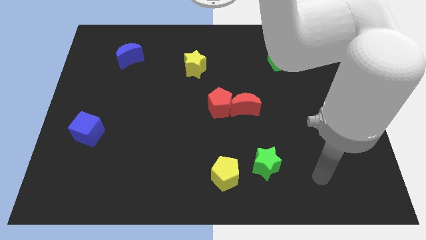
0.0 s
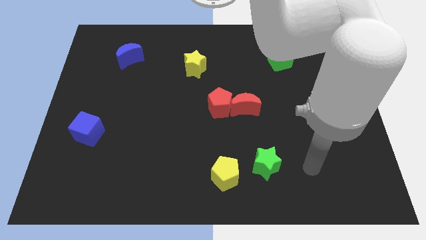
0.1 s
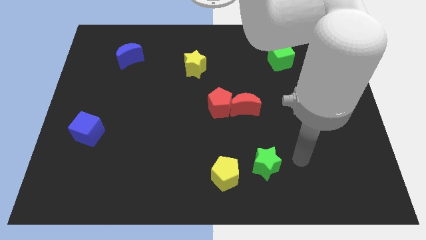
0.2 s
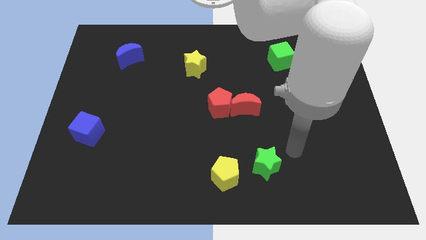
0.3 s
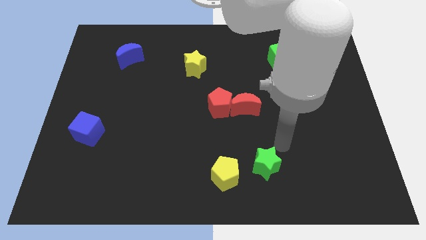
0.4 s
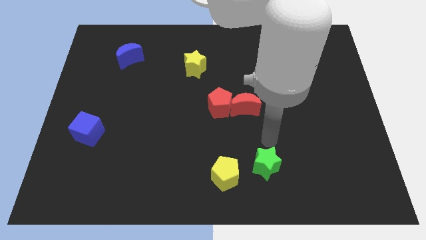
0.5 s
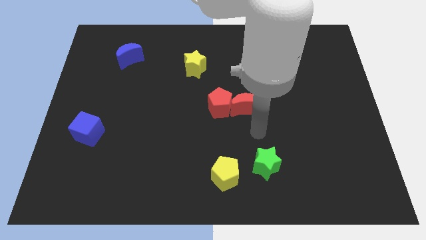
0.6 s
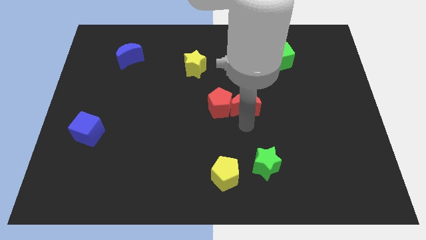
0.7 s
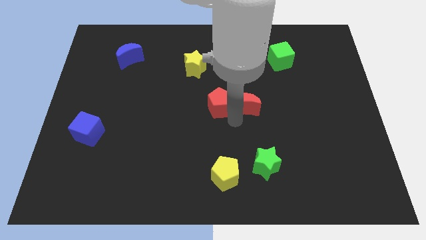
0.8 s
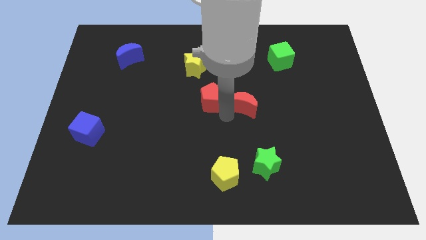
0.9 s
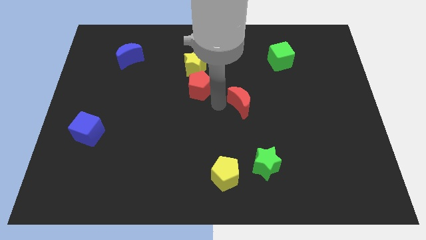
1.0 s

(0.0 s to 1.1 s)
move the red moon away from the red pentagon

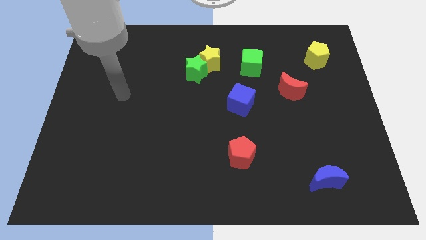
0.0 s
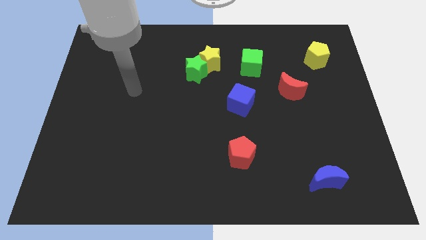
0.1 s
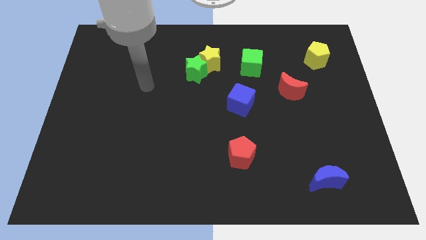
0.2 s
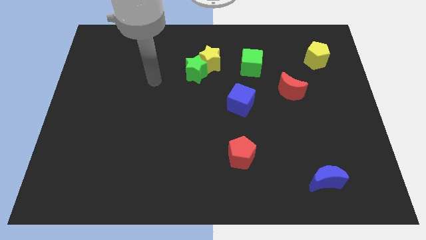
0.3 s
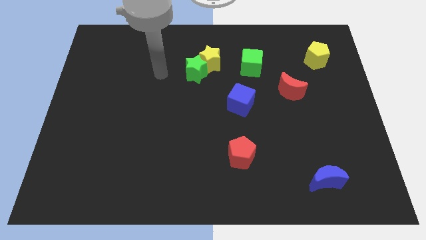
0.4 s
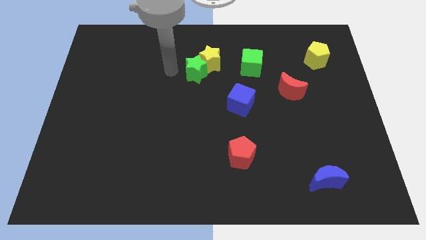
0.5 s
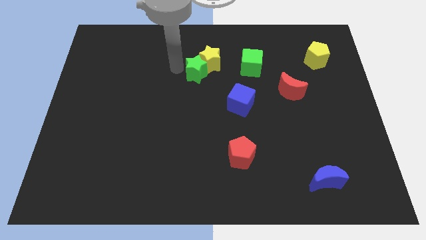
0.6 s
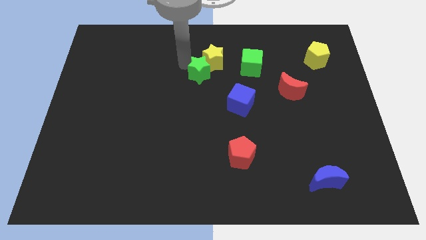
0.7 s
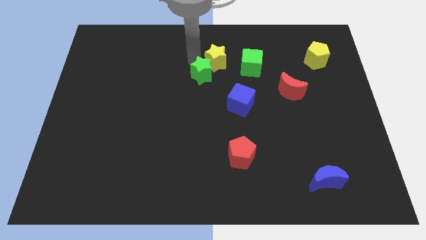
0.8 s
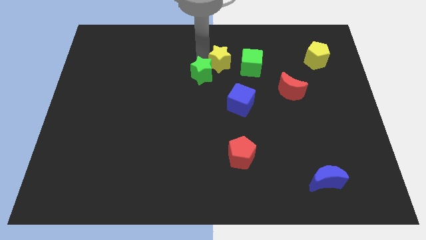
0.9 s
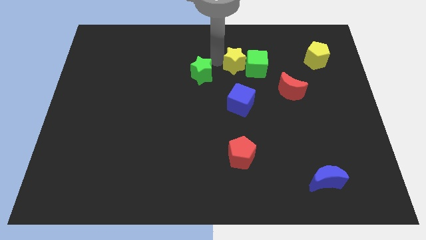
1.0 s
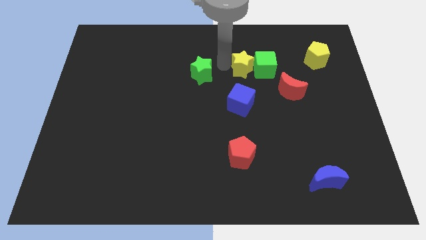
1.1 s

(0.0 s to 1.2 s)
move the green star away from the yellow star

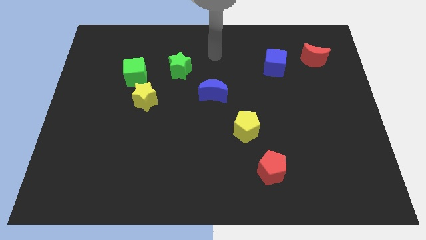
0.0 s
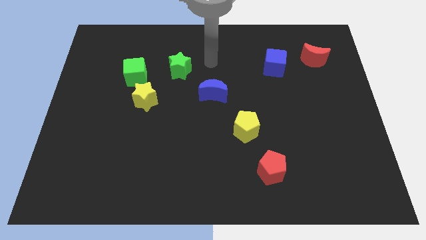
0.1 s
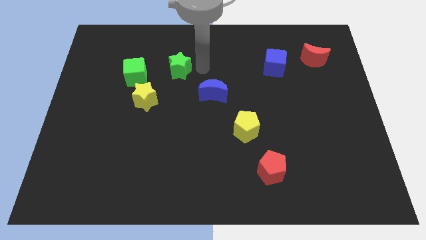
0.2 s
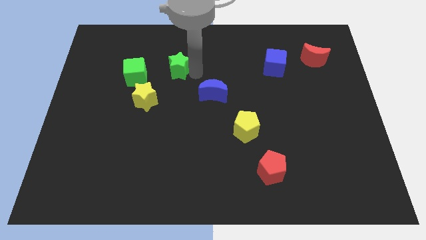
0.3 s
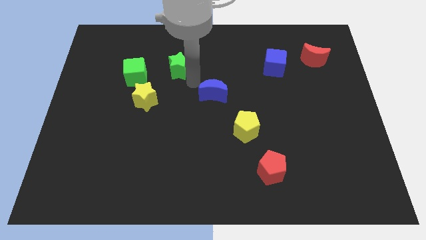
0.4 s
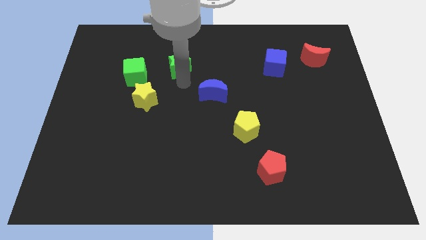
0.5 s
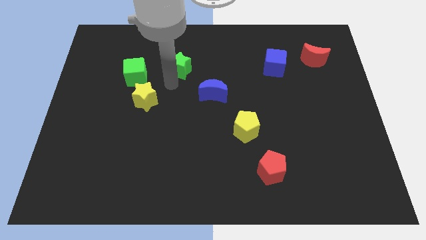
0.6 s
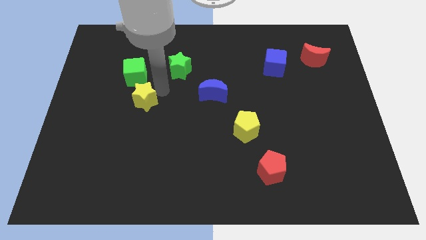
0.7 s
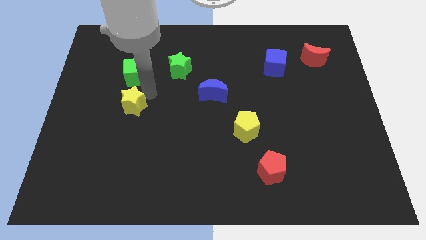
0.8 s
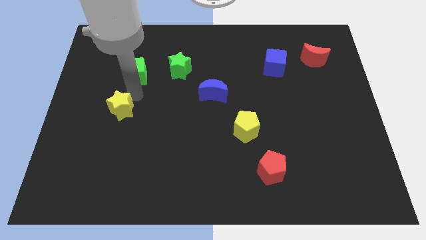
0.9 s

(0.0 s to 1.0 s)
separate the green cube from the yellow star

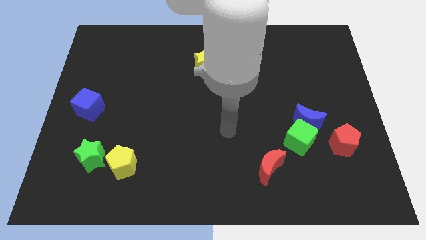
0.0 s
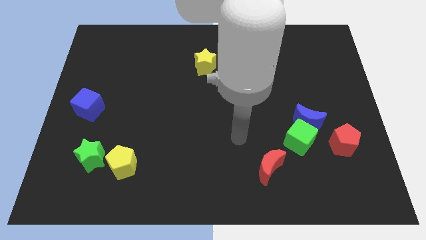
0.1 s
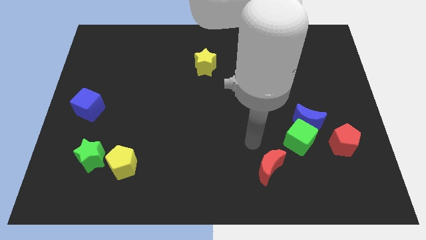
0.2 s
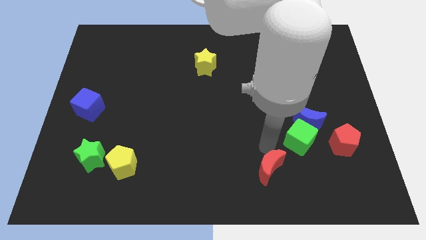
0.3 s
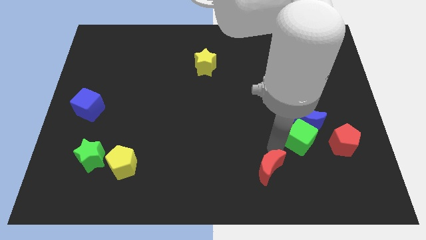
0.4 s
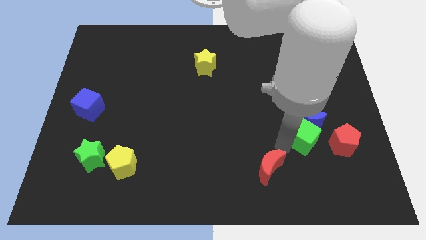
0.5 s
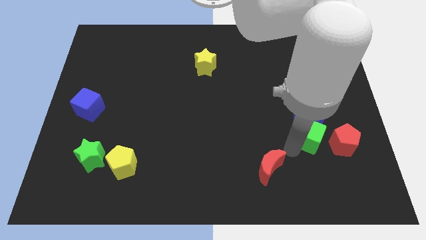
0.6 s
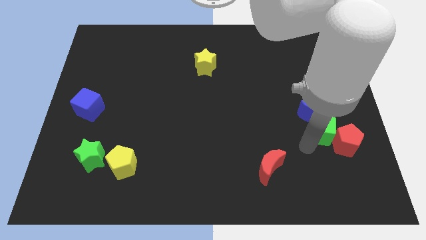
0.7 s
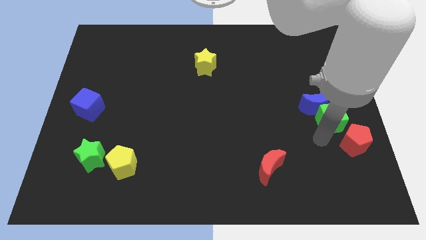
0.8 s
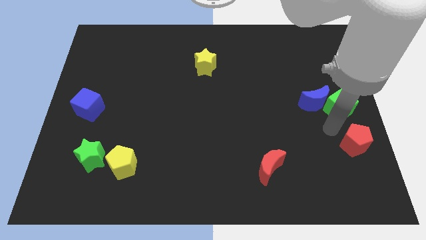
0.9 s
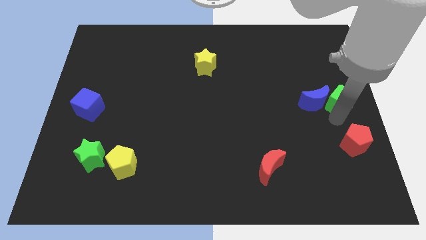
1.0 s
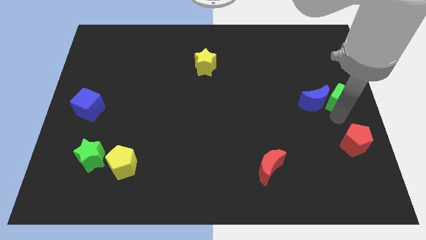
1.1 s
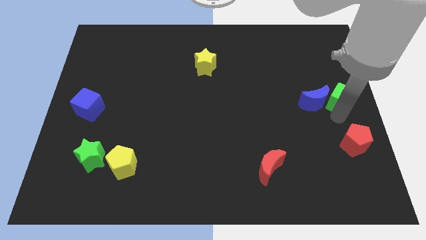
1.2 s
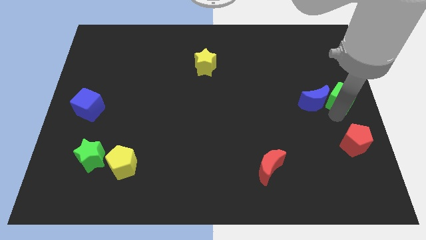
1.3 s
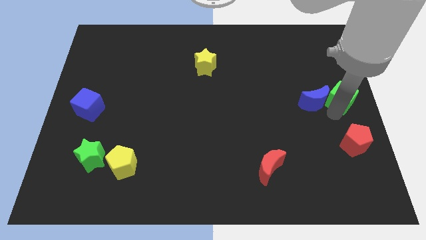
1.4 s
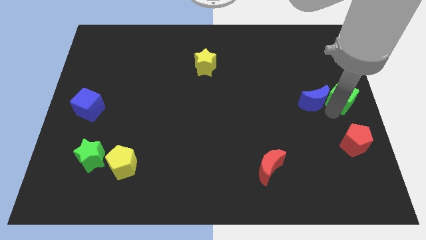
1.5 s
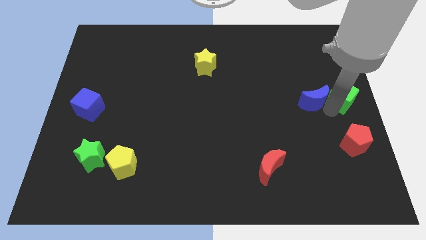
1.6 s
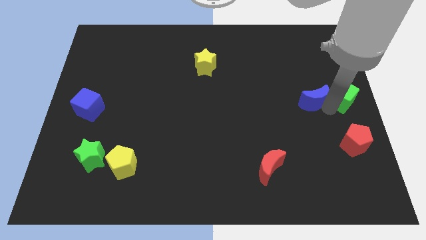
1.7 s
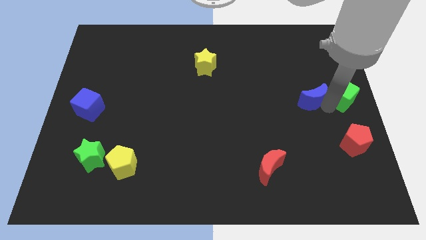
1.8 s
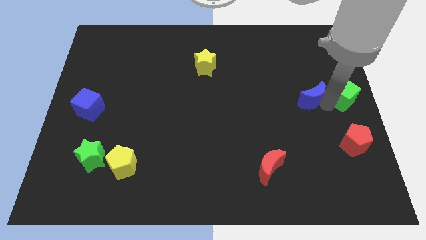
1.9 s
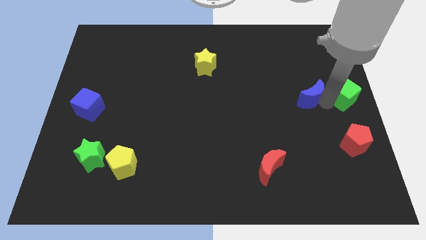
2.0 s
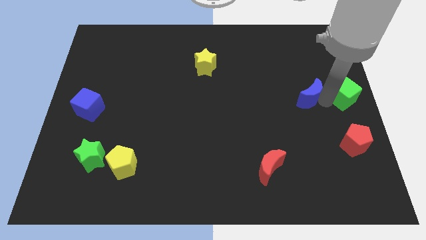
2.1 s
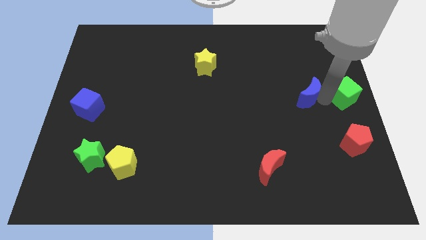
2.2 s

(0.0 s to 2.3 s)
pull the blue moon apart from the green cube and red pentagon

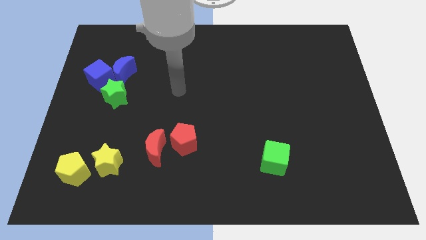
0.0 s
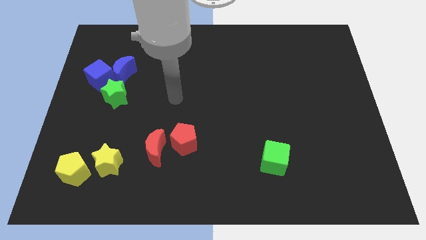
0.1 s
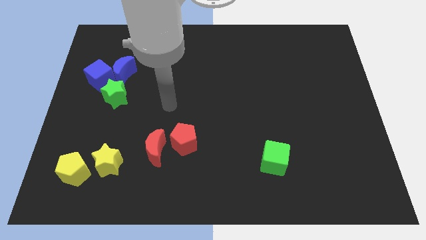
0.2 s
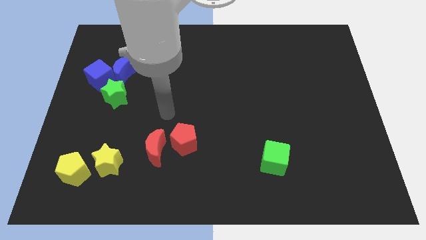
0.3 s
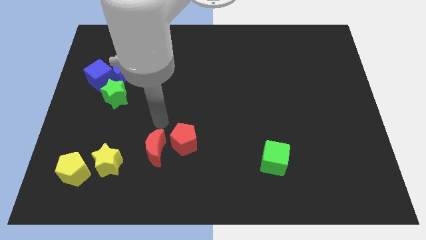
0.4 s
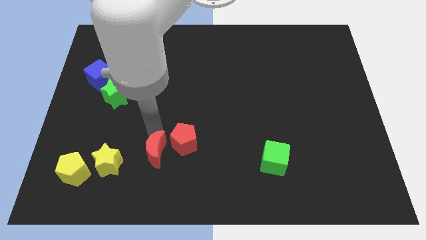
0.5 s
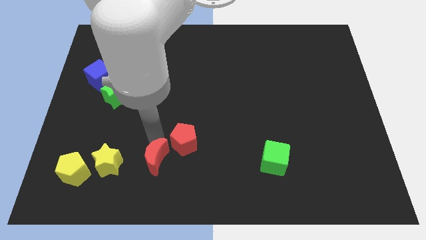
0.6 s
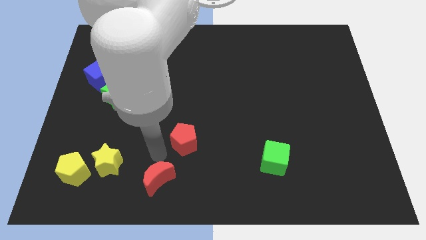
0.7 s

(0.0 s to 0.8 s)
separate the red pentagon from the red moon

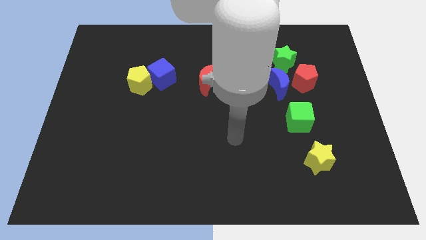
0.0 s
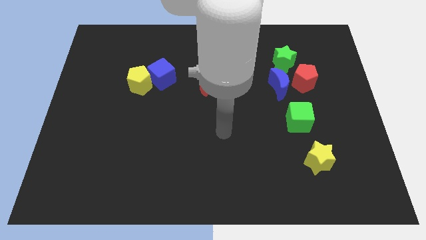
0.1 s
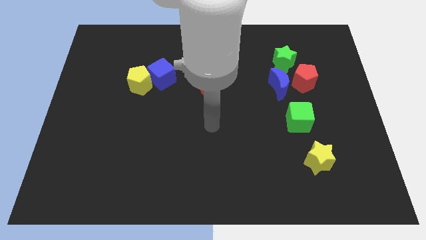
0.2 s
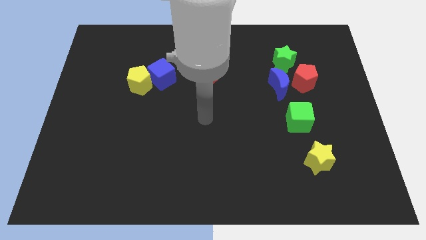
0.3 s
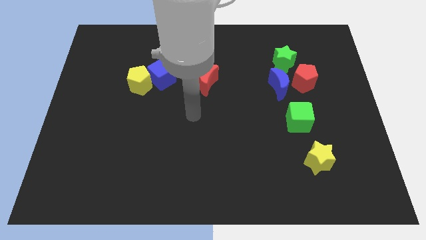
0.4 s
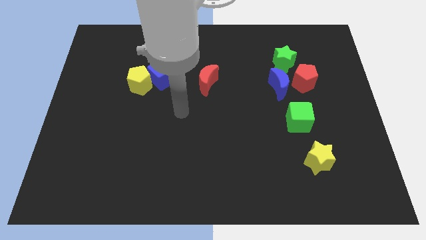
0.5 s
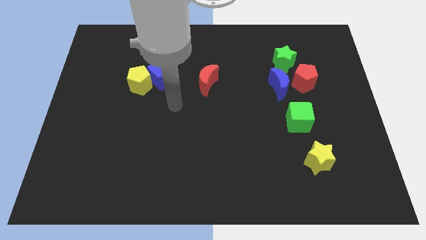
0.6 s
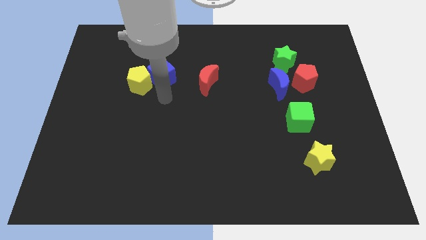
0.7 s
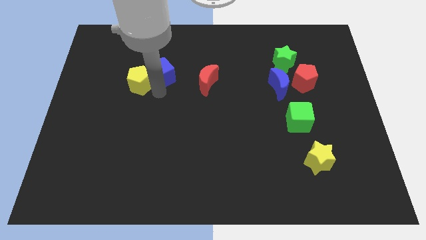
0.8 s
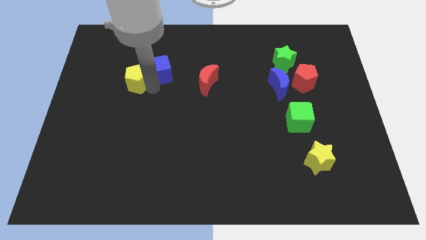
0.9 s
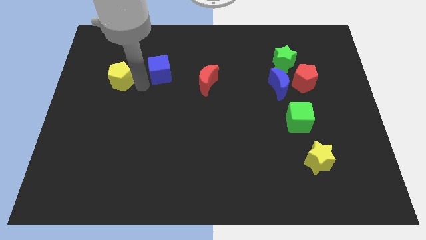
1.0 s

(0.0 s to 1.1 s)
move the blue cube away from the yellow pentagon

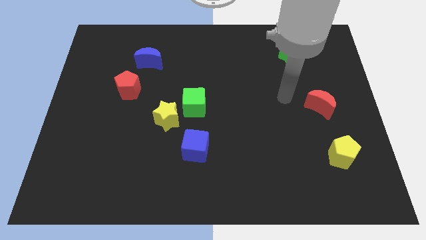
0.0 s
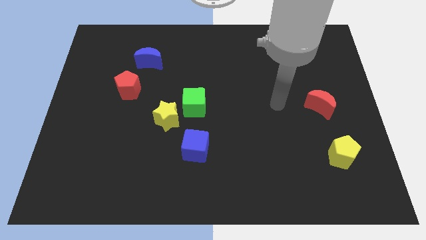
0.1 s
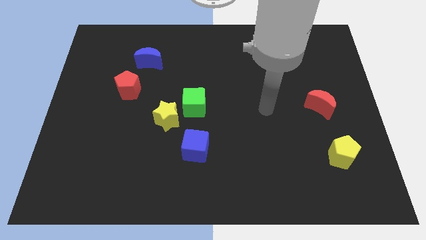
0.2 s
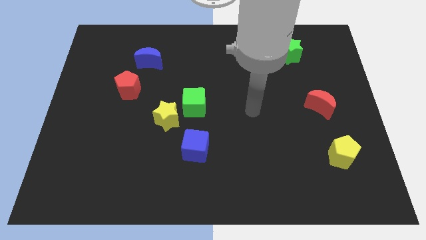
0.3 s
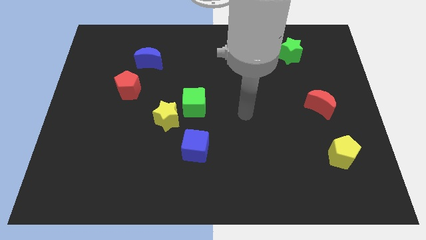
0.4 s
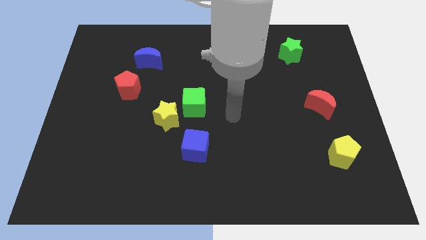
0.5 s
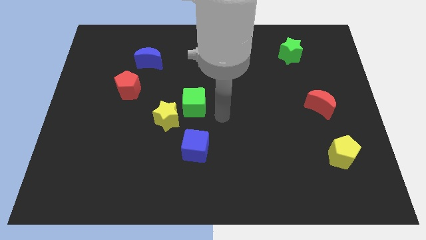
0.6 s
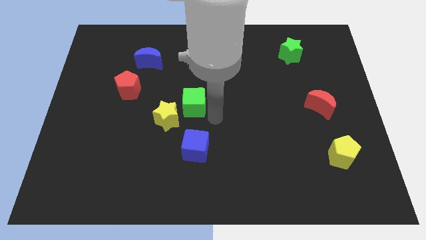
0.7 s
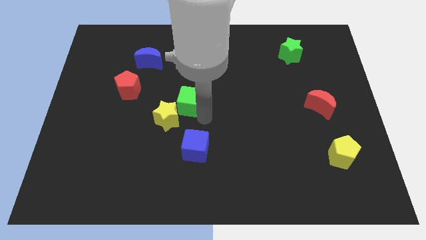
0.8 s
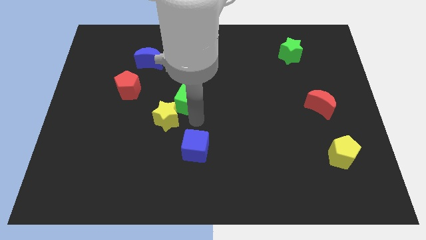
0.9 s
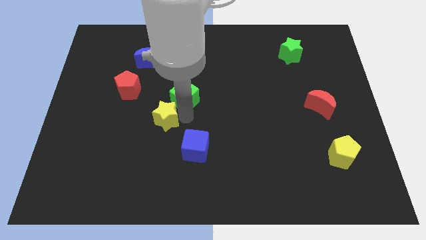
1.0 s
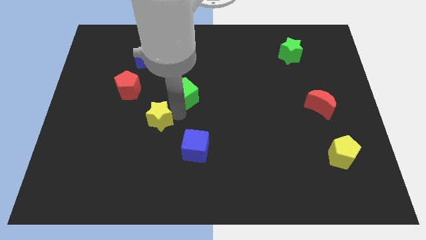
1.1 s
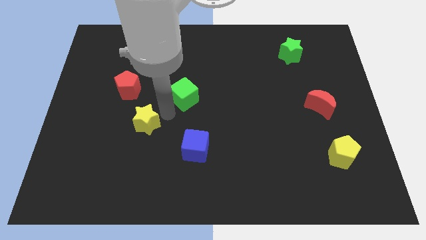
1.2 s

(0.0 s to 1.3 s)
move the green cube away from the yellow star

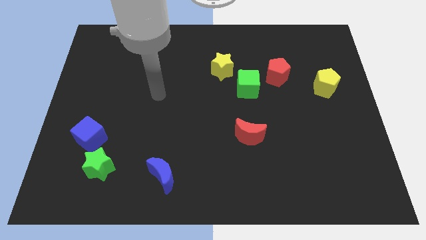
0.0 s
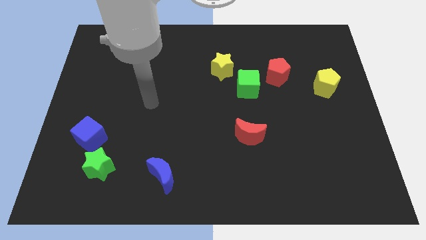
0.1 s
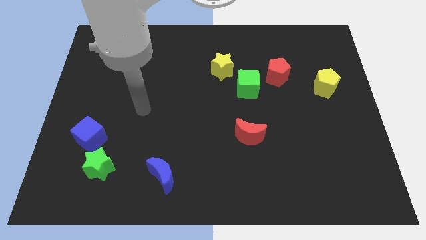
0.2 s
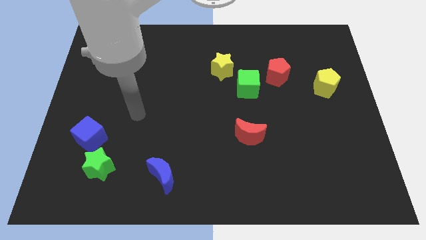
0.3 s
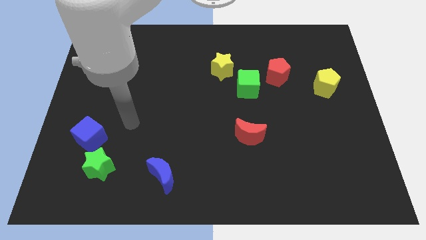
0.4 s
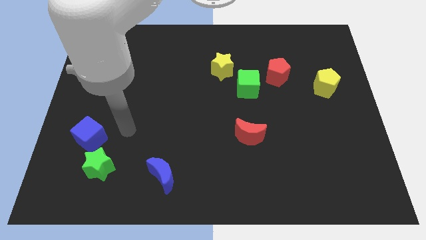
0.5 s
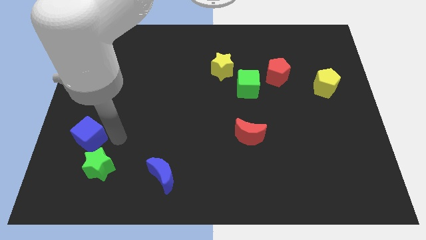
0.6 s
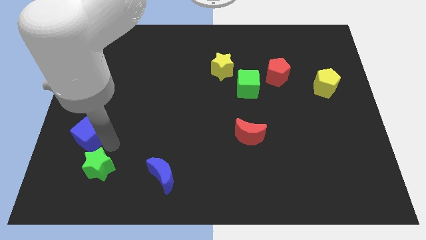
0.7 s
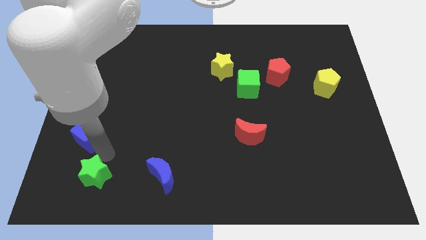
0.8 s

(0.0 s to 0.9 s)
pull the blue cube apart from the green star
